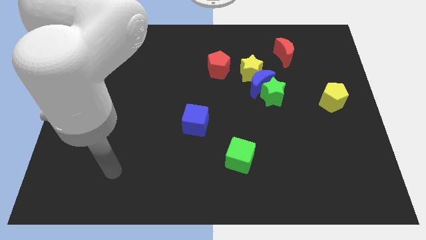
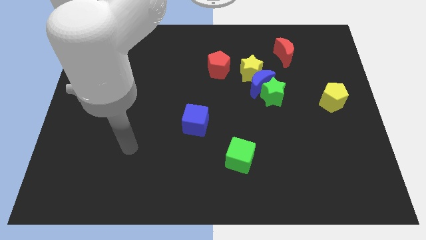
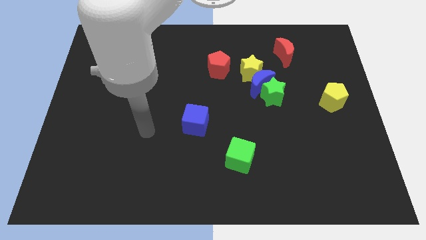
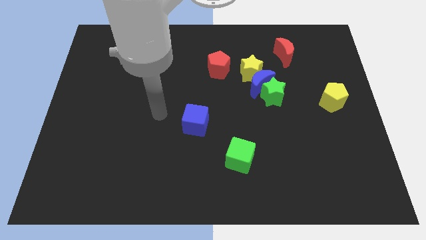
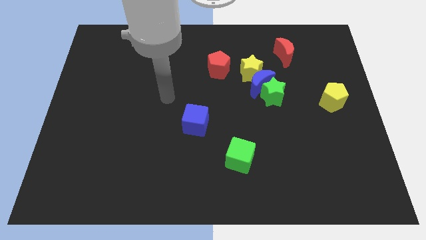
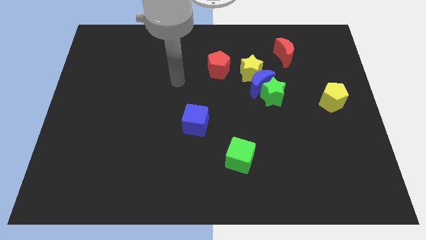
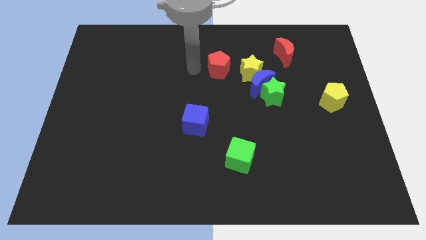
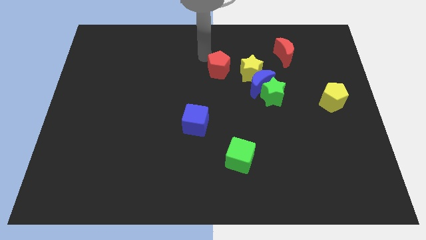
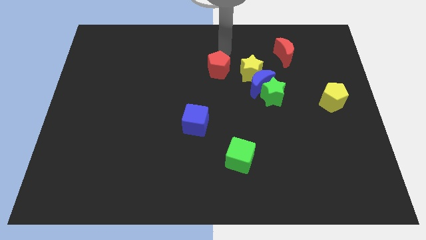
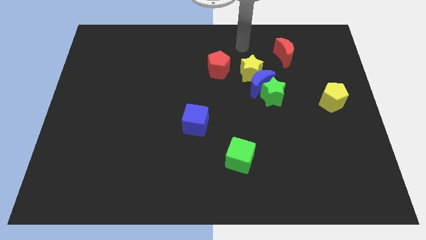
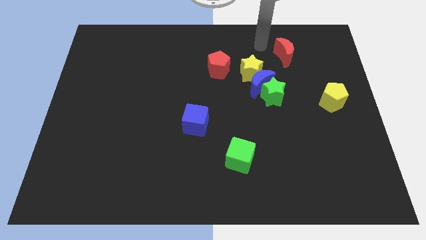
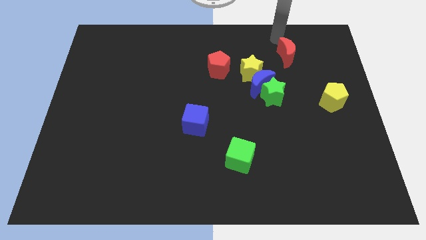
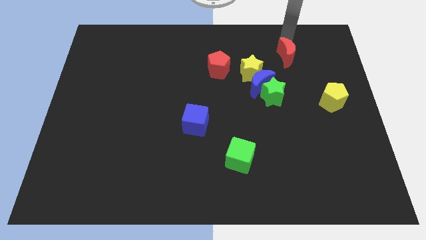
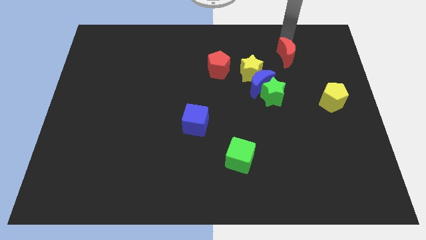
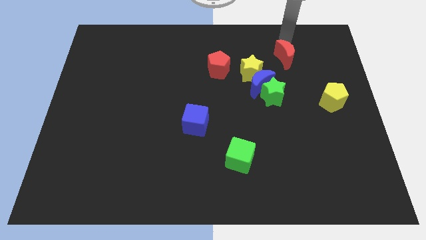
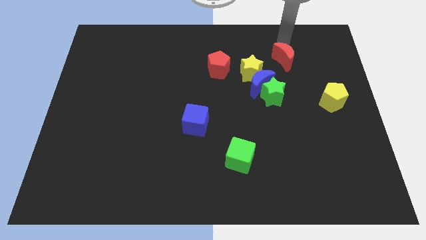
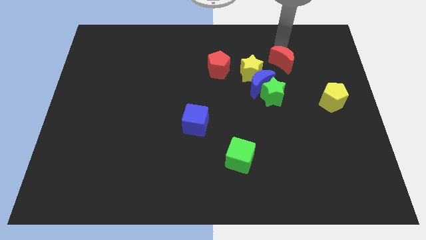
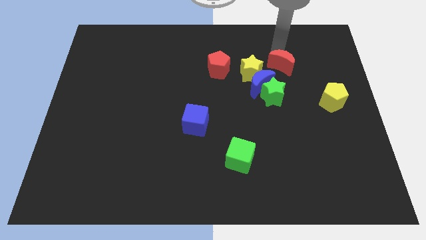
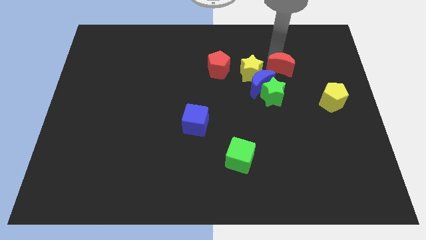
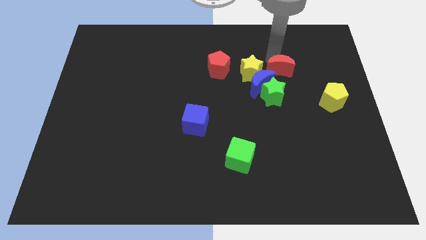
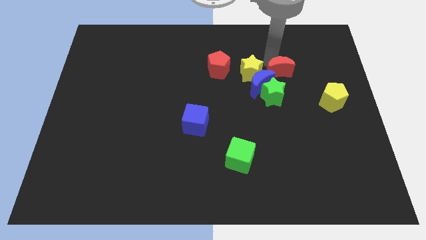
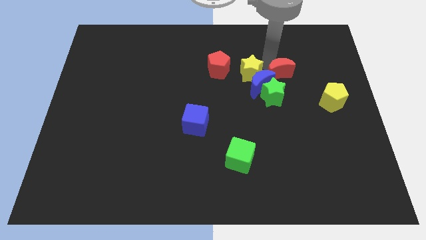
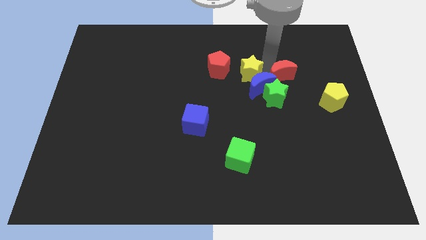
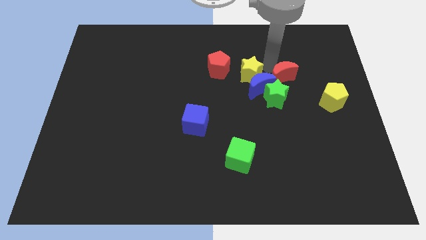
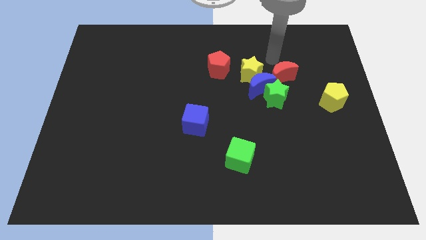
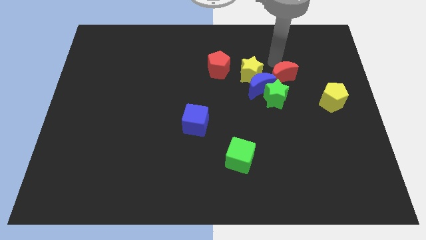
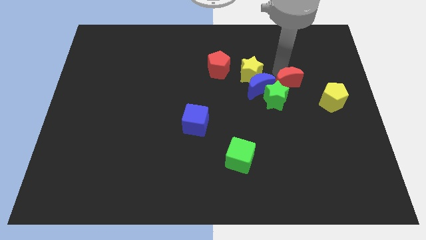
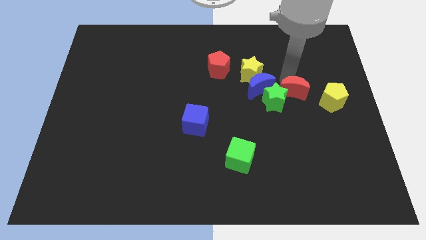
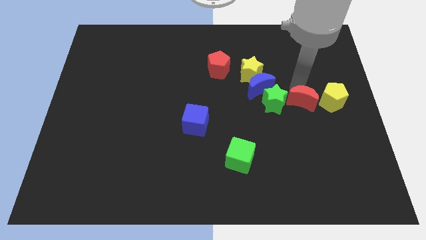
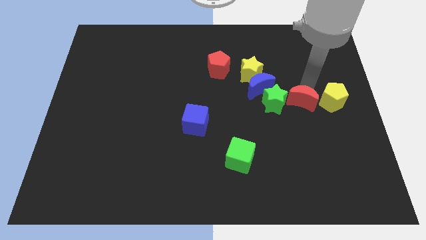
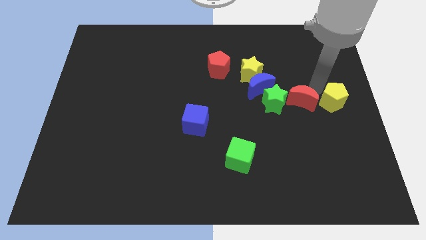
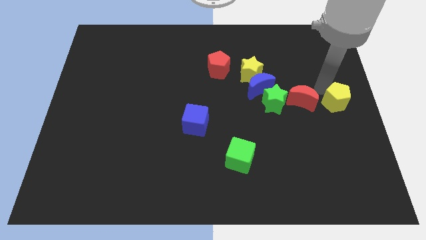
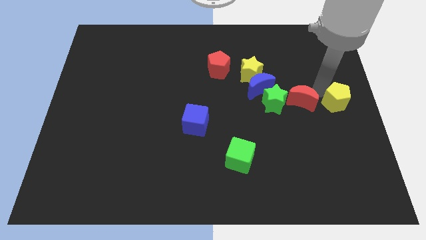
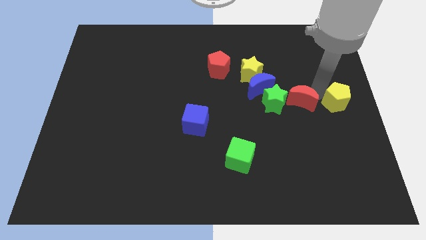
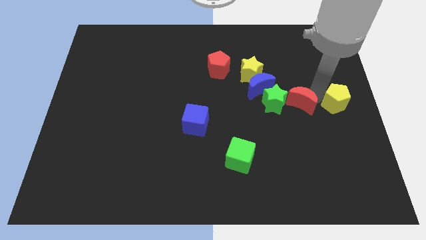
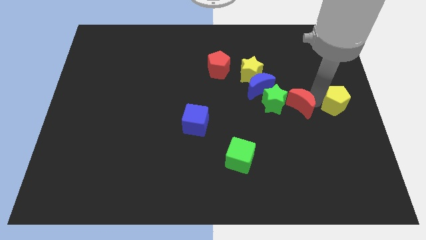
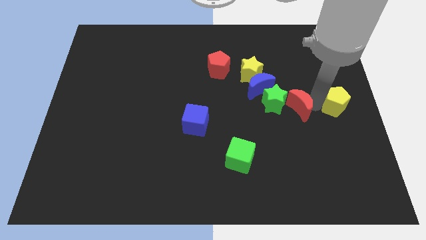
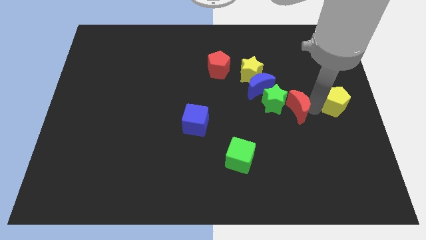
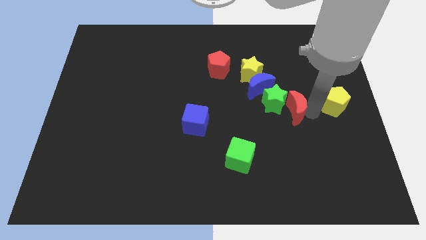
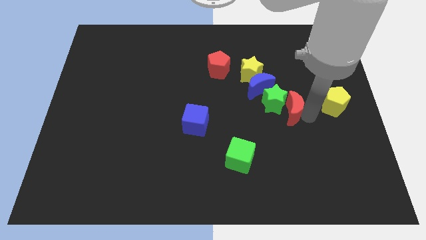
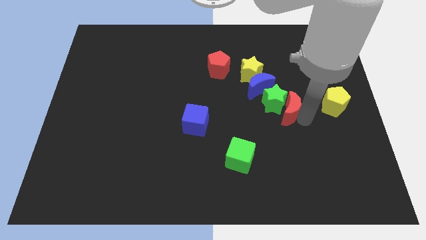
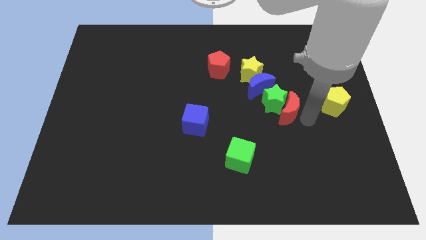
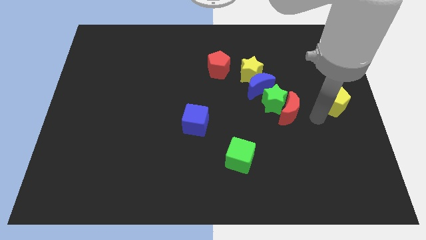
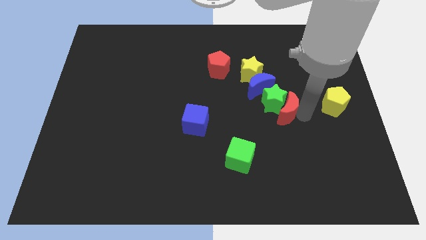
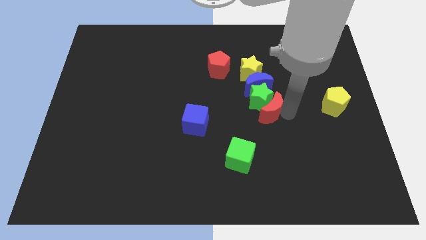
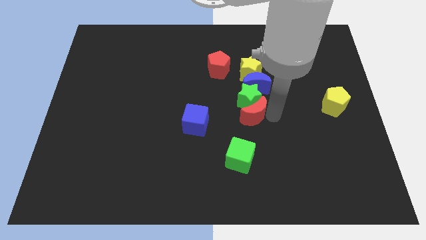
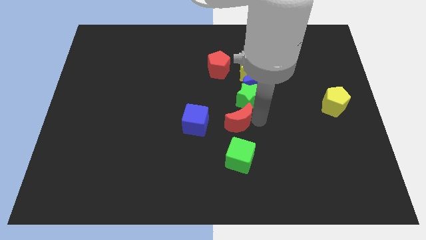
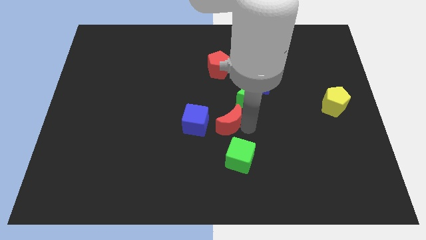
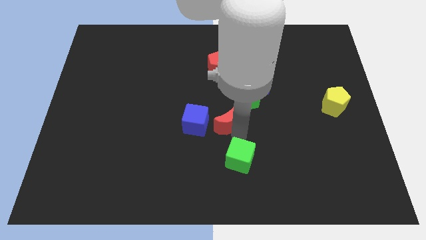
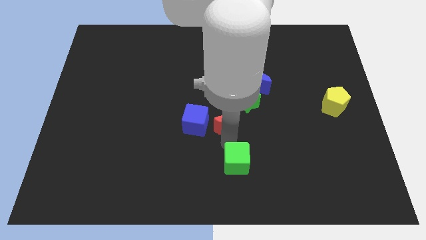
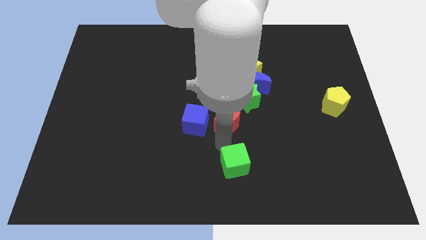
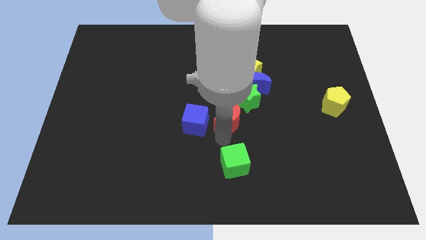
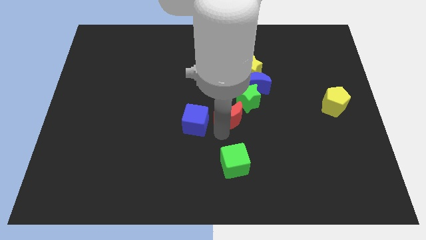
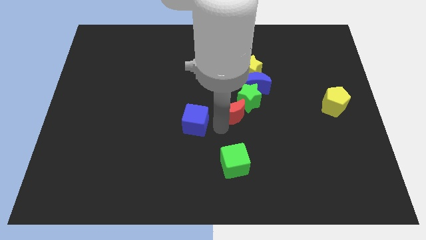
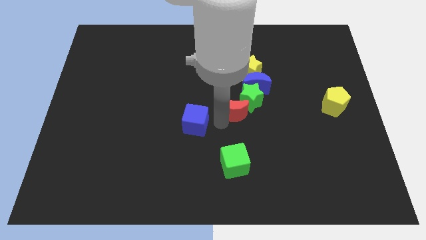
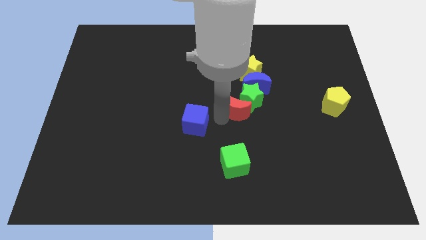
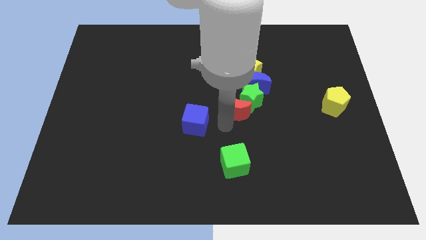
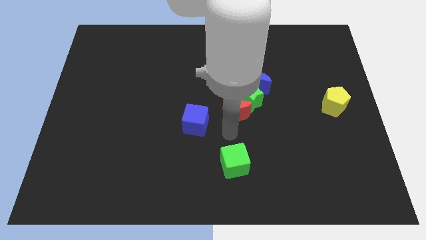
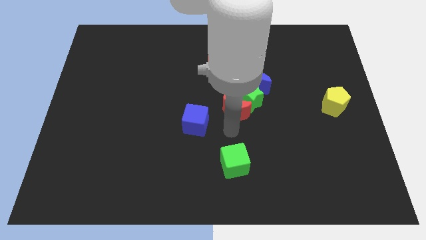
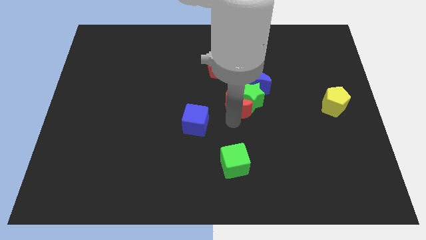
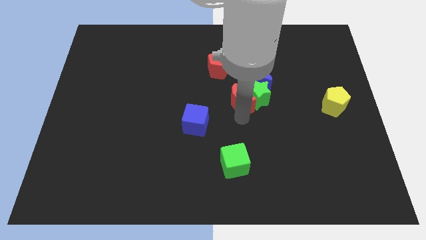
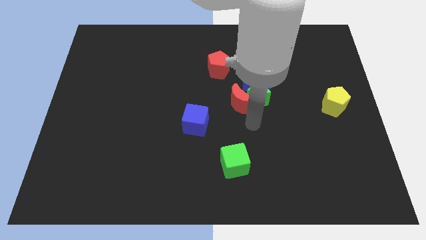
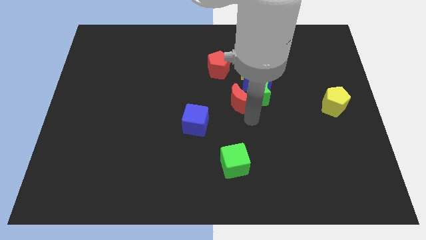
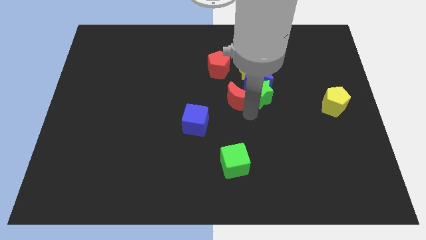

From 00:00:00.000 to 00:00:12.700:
slide the red moon to the bottom left side of the yellow star

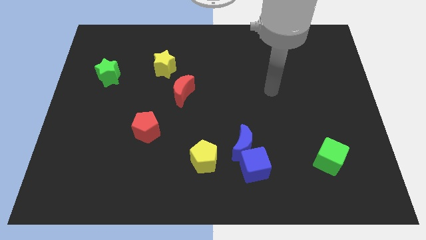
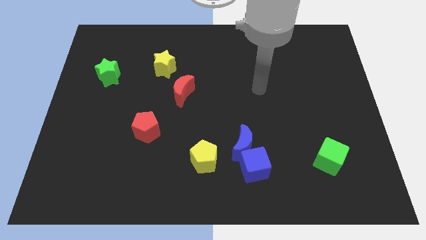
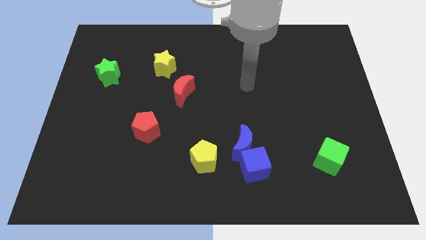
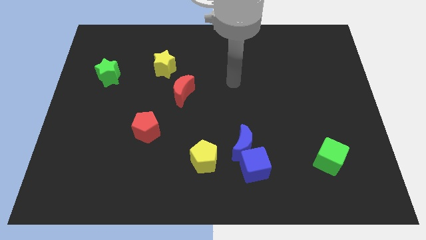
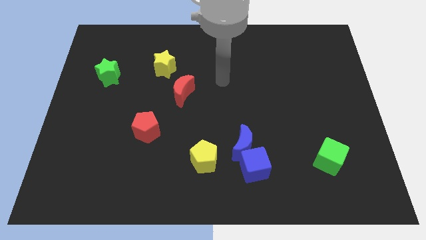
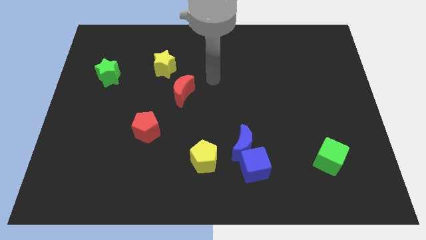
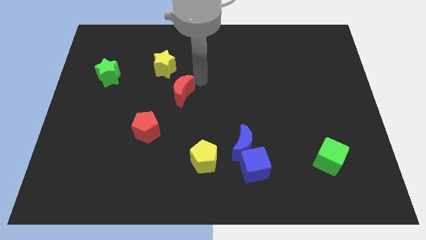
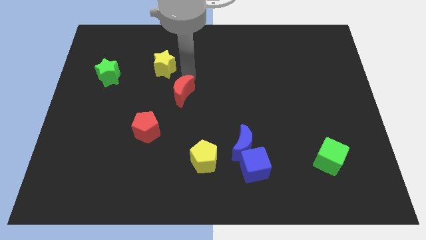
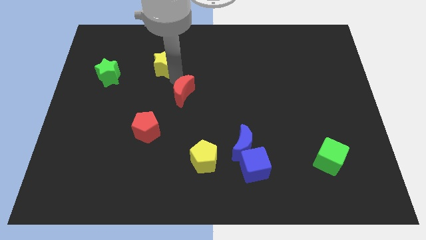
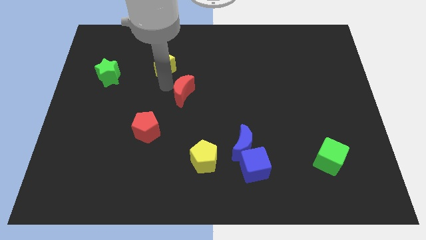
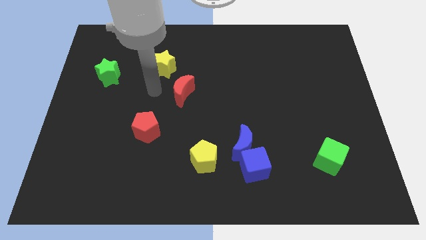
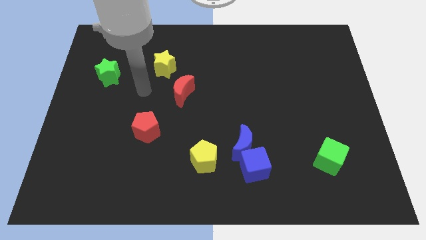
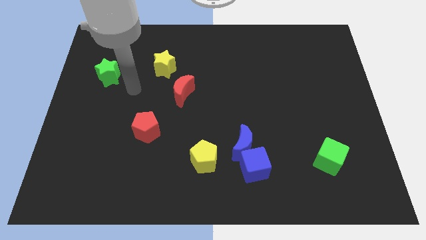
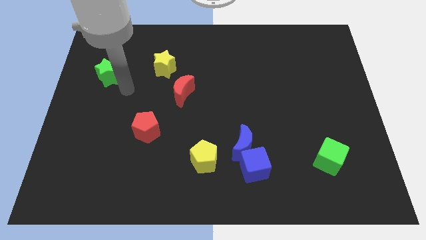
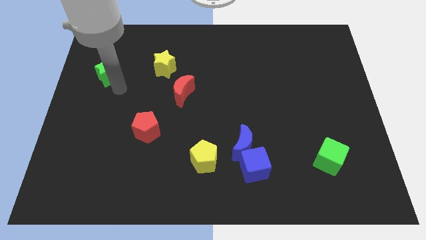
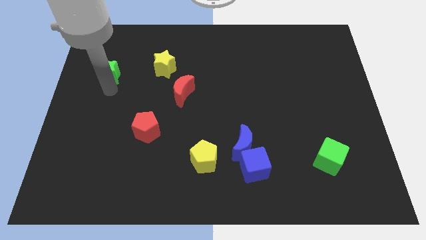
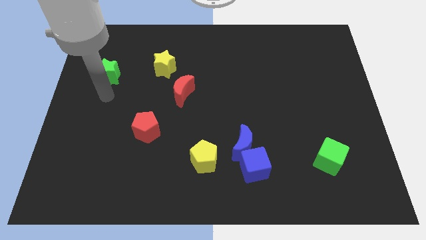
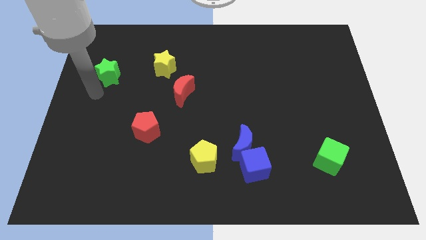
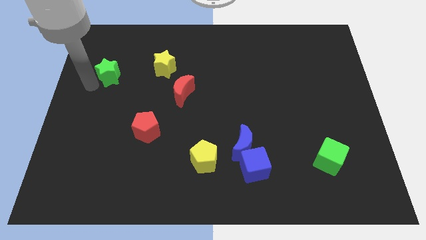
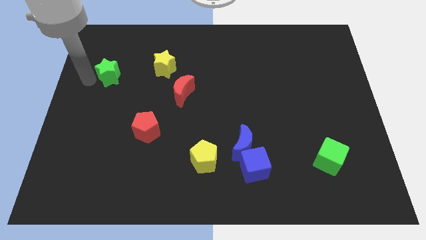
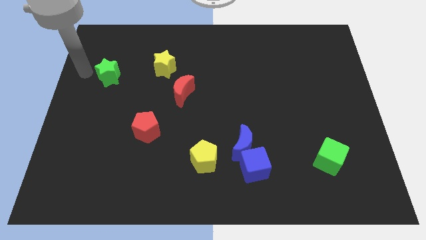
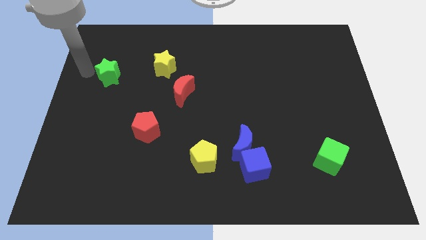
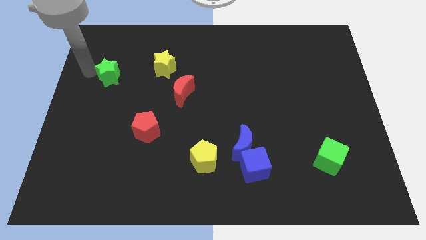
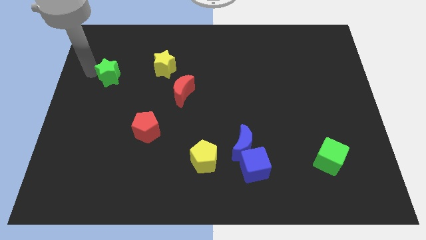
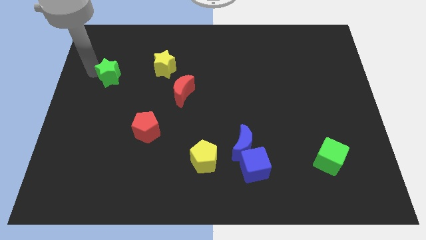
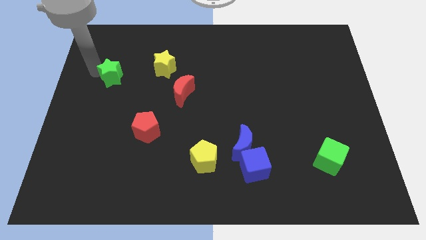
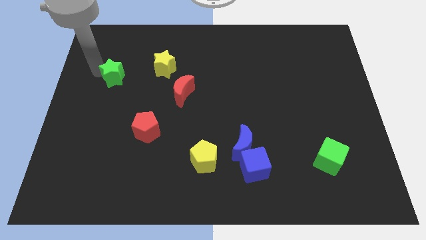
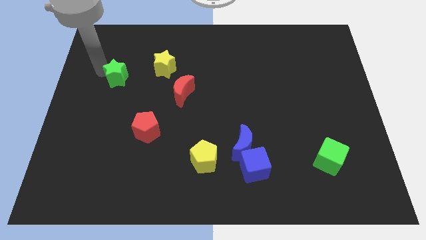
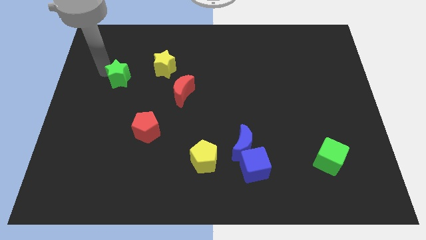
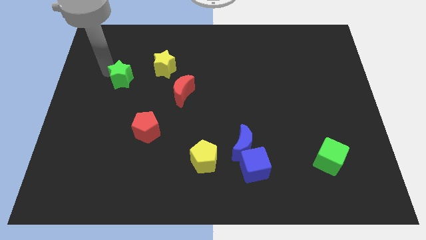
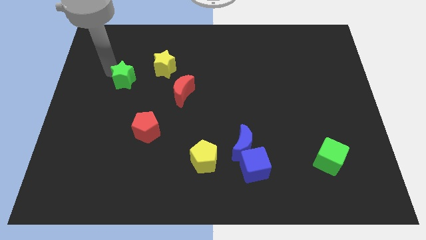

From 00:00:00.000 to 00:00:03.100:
slide the green star to the bottom left side of the yellow star
